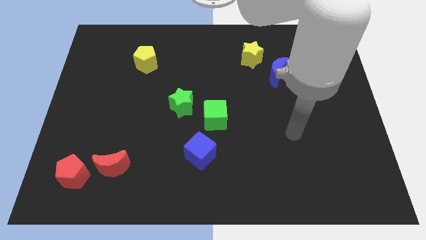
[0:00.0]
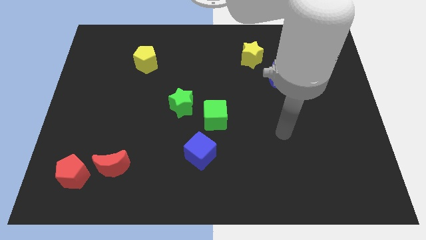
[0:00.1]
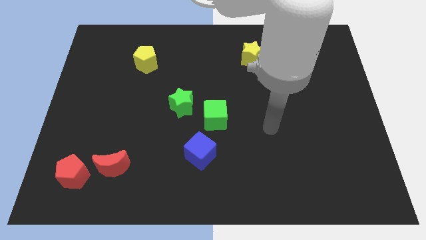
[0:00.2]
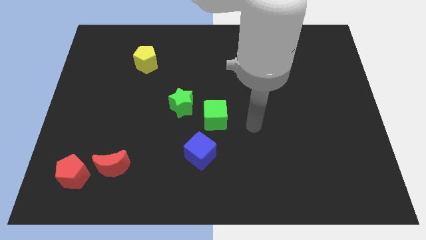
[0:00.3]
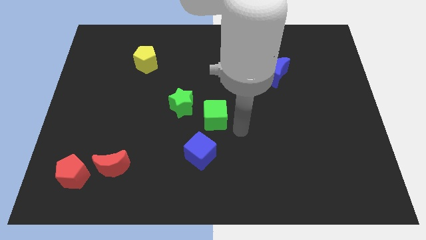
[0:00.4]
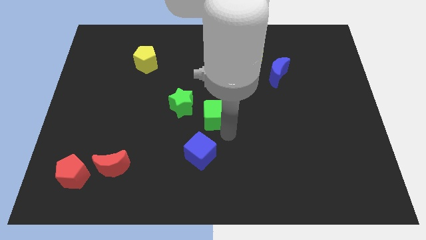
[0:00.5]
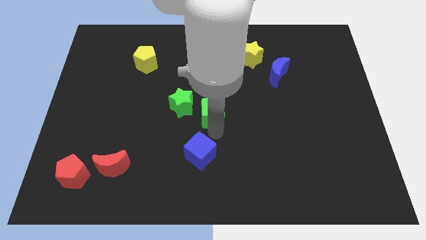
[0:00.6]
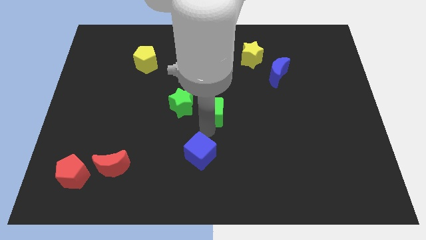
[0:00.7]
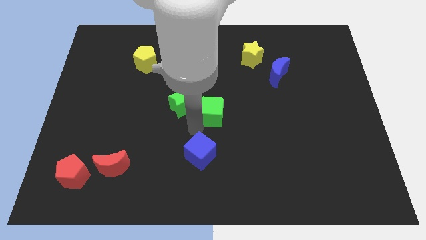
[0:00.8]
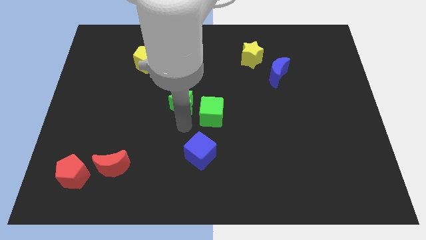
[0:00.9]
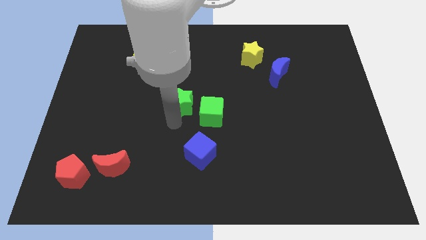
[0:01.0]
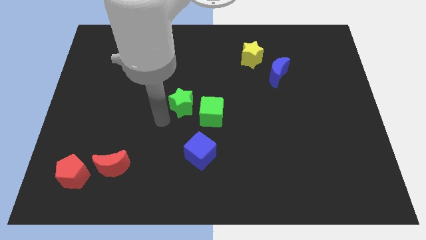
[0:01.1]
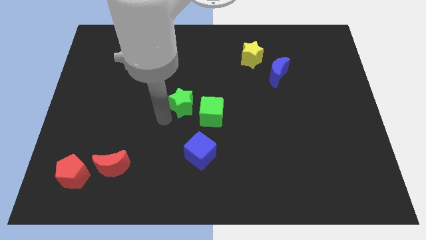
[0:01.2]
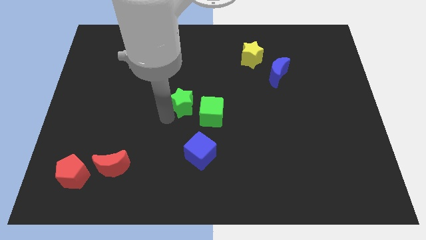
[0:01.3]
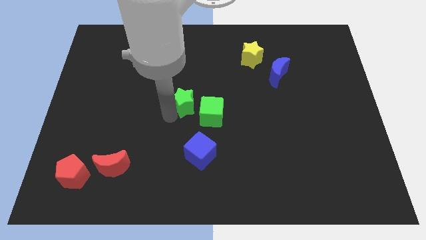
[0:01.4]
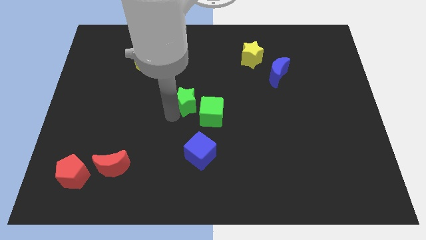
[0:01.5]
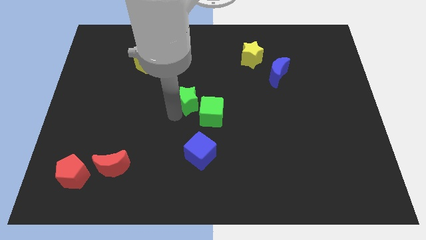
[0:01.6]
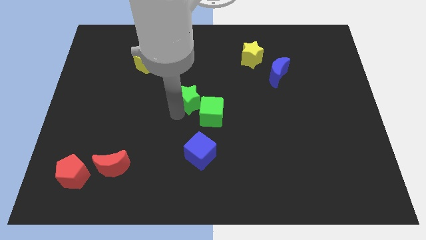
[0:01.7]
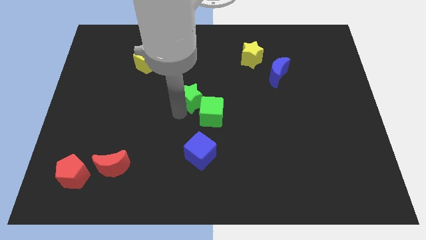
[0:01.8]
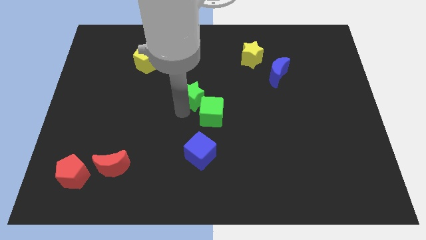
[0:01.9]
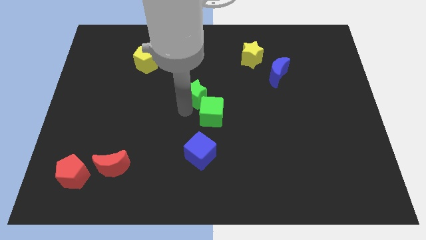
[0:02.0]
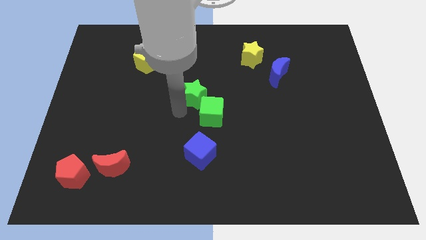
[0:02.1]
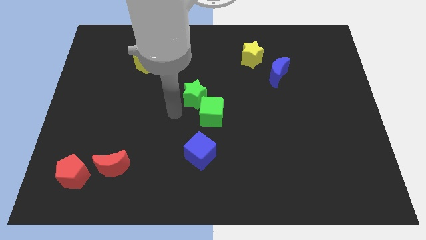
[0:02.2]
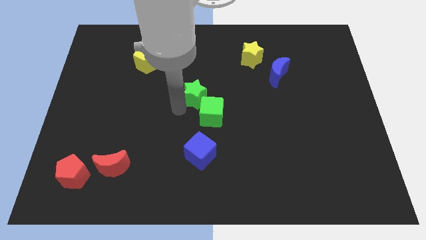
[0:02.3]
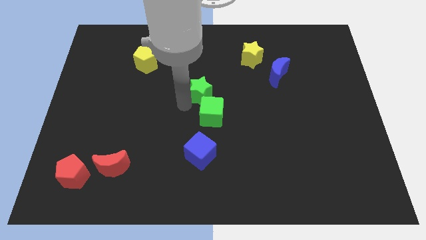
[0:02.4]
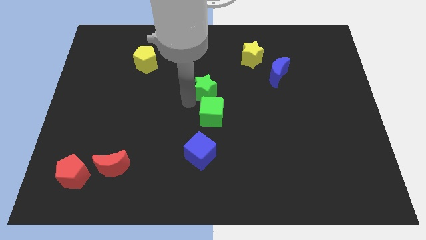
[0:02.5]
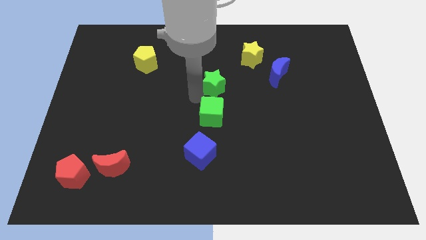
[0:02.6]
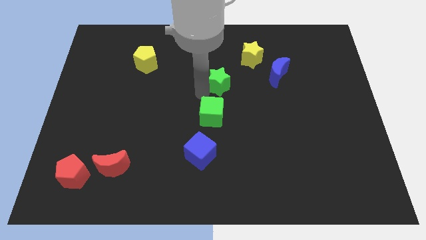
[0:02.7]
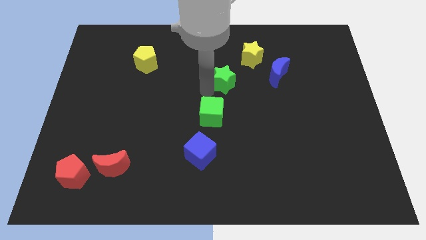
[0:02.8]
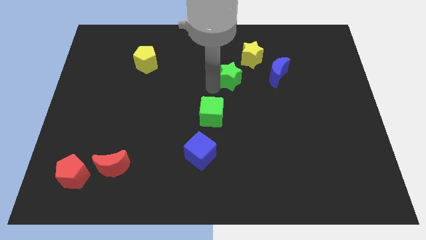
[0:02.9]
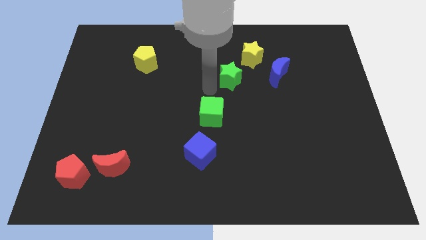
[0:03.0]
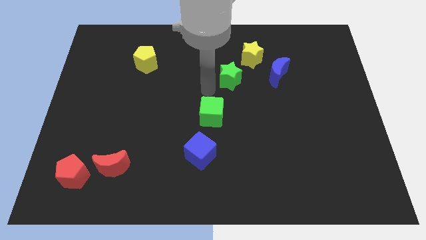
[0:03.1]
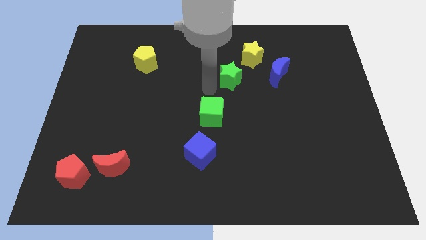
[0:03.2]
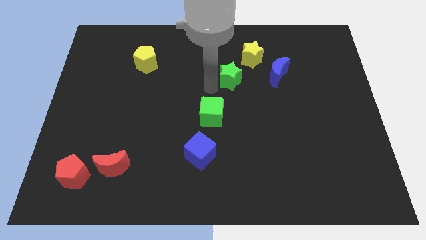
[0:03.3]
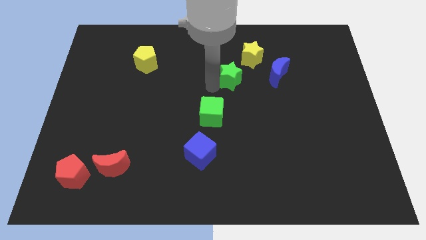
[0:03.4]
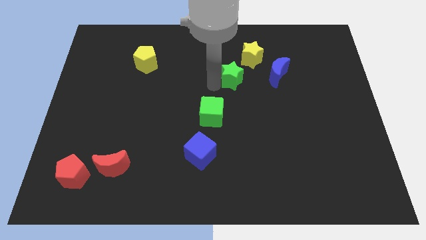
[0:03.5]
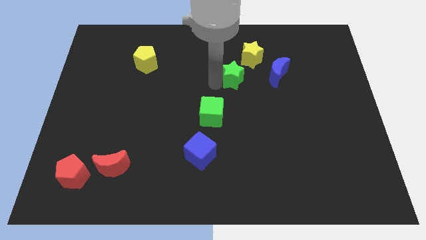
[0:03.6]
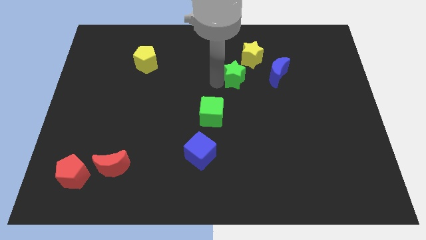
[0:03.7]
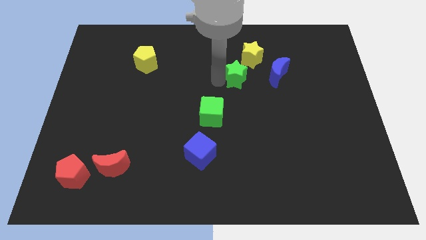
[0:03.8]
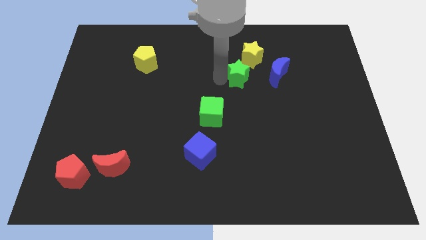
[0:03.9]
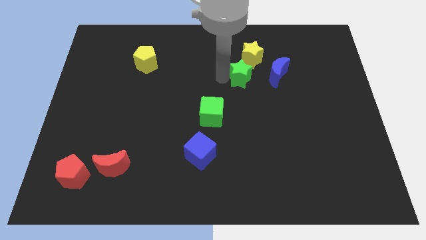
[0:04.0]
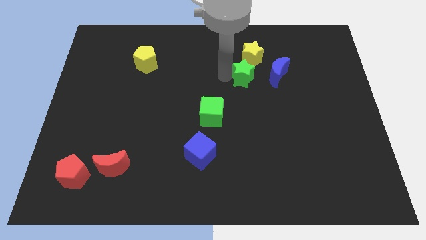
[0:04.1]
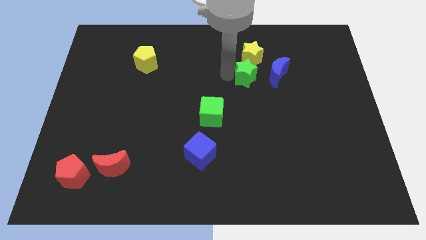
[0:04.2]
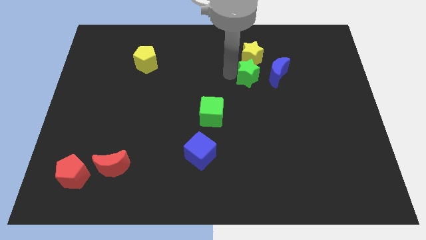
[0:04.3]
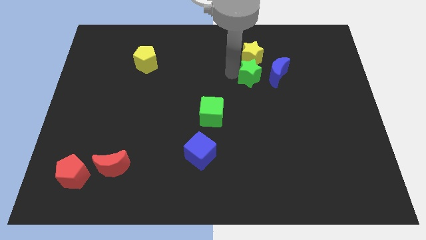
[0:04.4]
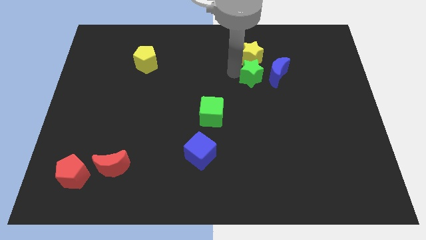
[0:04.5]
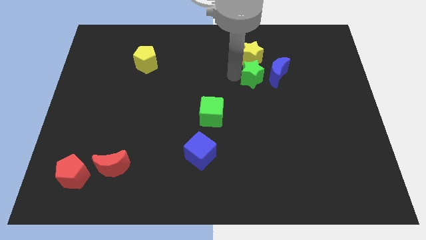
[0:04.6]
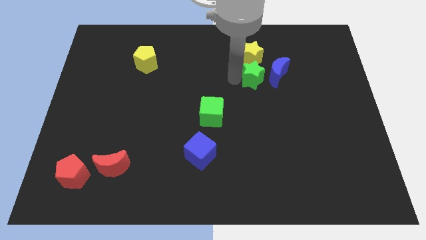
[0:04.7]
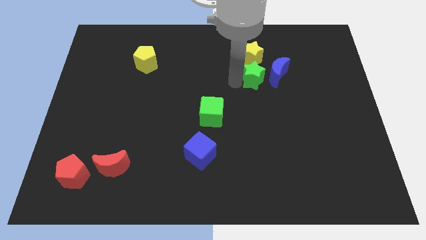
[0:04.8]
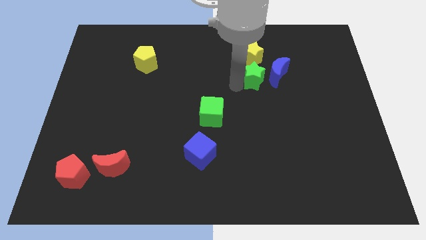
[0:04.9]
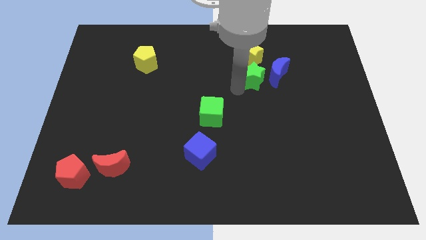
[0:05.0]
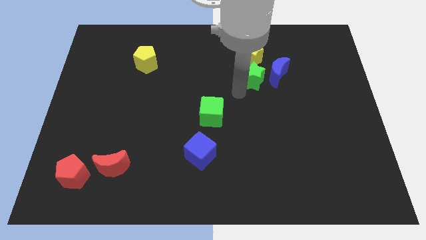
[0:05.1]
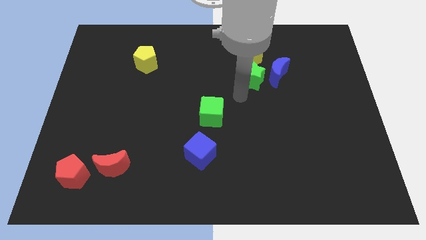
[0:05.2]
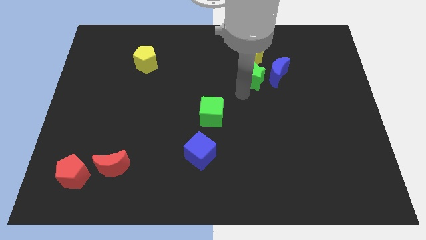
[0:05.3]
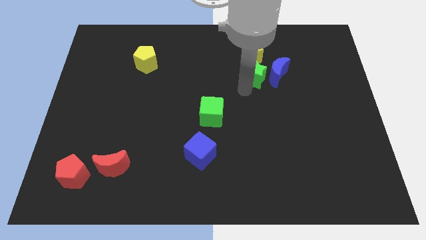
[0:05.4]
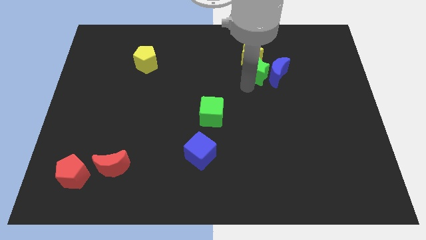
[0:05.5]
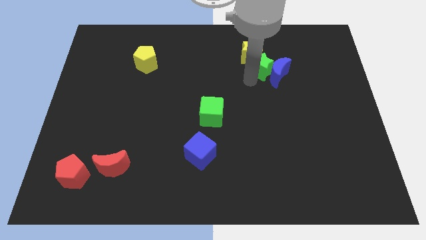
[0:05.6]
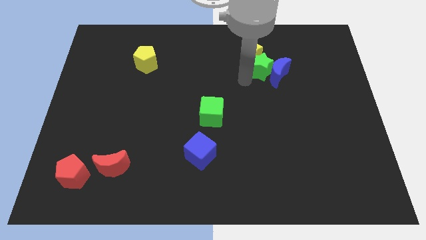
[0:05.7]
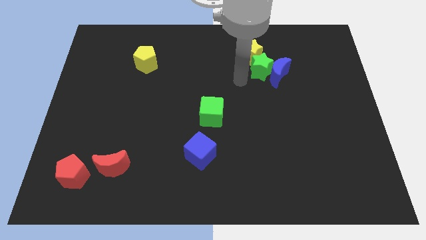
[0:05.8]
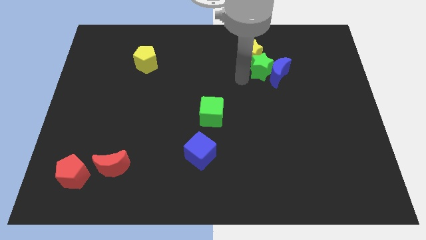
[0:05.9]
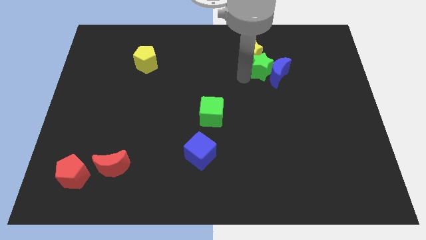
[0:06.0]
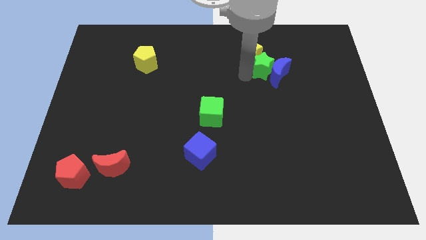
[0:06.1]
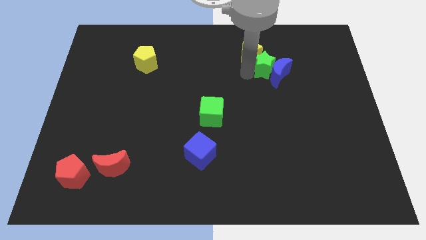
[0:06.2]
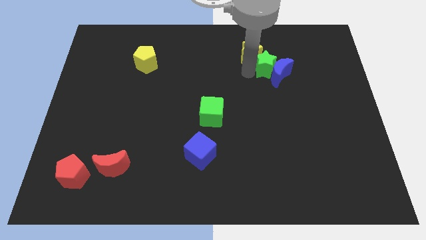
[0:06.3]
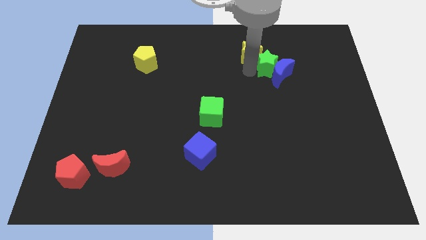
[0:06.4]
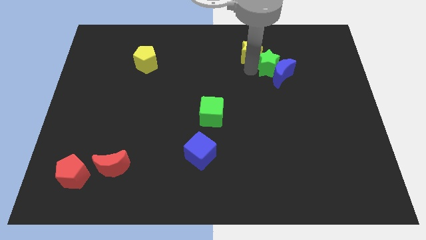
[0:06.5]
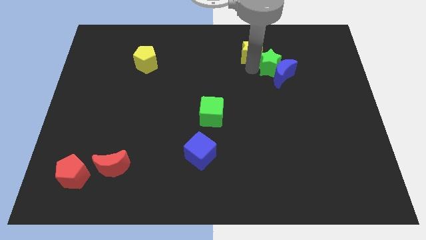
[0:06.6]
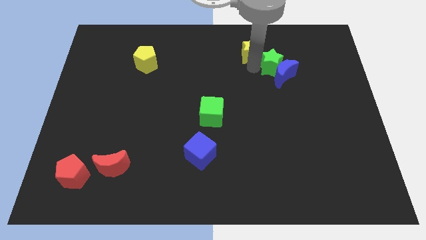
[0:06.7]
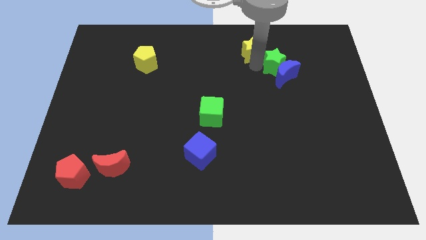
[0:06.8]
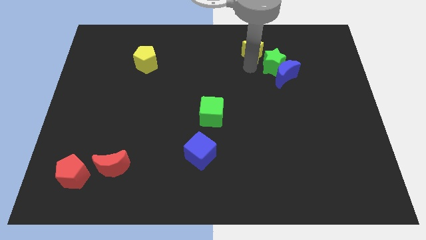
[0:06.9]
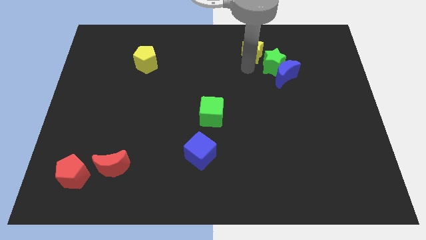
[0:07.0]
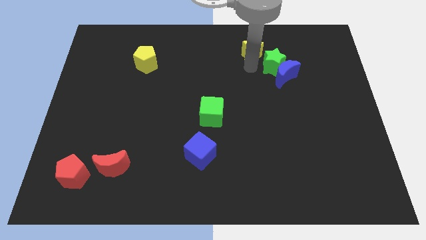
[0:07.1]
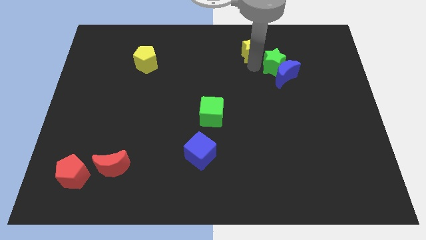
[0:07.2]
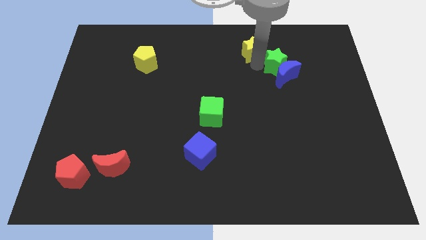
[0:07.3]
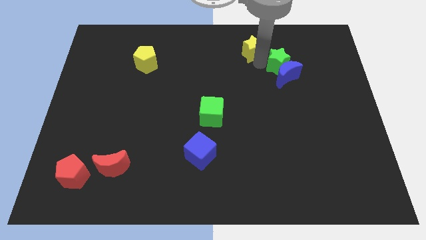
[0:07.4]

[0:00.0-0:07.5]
push the green star to the top right of the blue moon

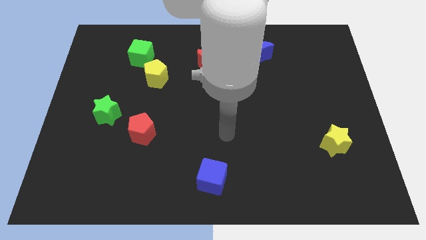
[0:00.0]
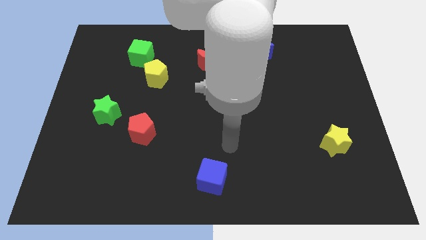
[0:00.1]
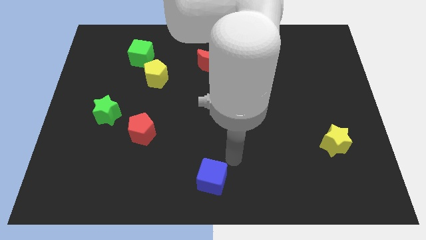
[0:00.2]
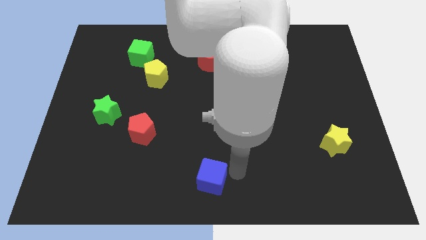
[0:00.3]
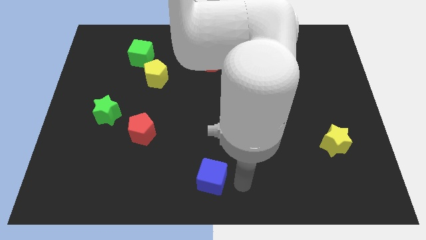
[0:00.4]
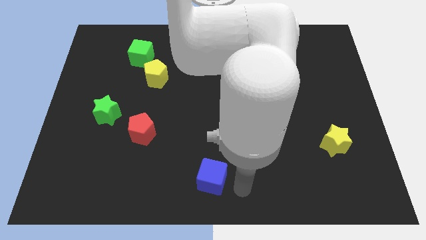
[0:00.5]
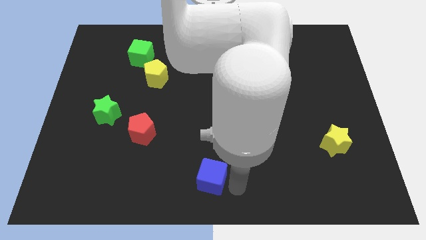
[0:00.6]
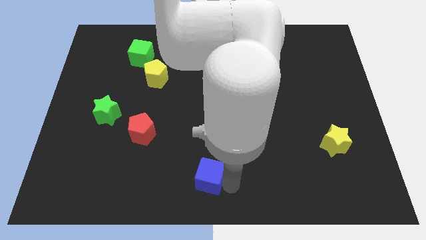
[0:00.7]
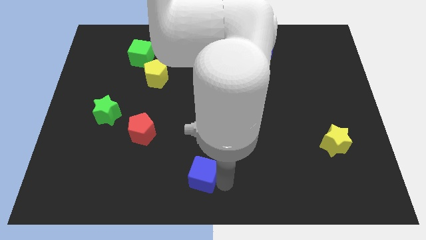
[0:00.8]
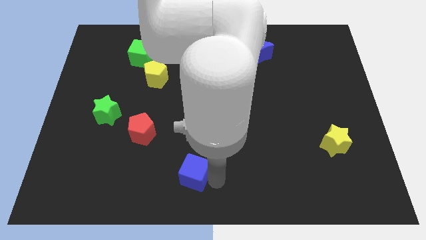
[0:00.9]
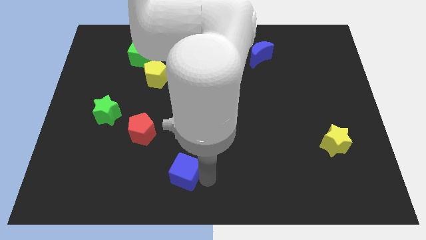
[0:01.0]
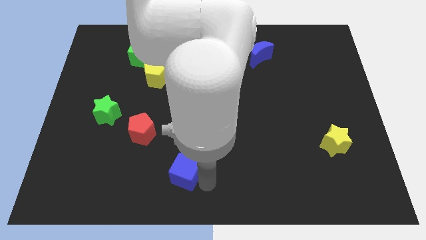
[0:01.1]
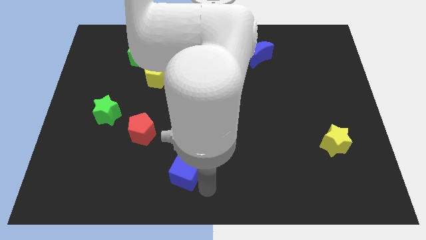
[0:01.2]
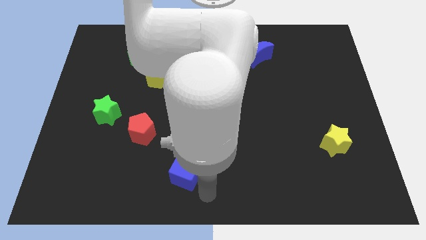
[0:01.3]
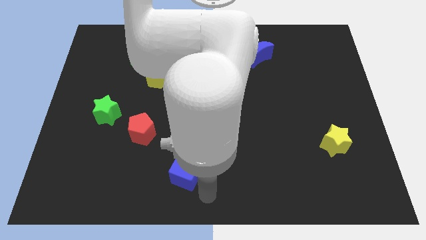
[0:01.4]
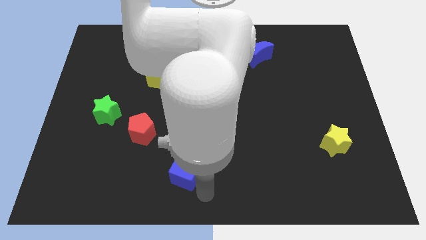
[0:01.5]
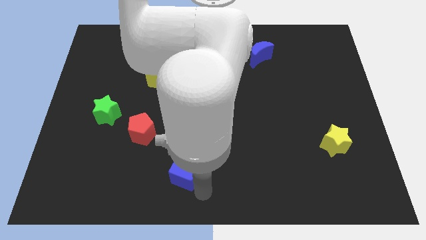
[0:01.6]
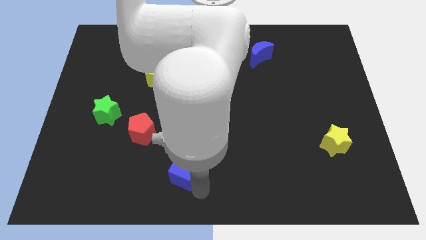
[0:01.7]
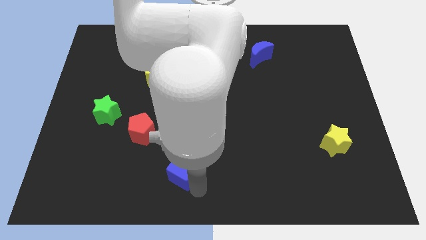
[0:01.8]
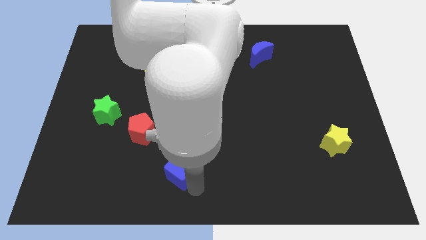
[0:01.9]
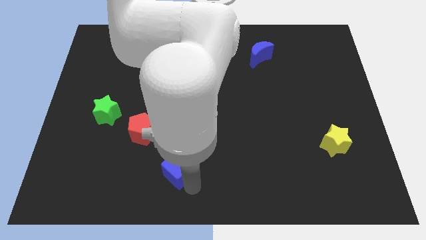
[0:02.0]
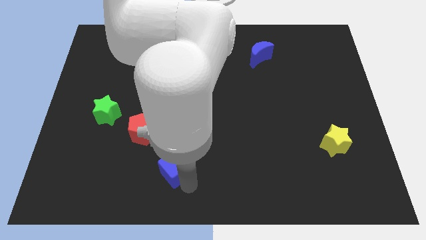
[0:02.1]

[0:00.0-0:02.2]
put the blue cube to the bottom right of the red pentagon
